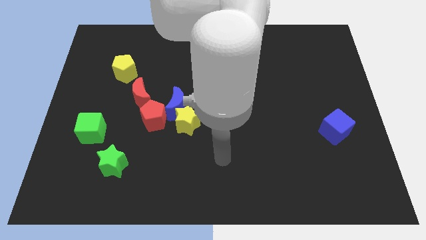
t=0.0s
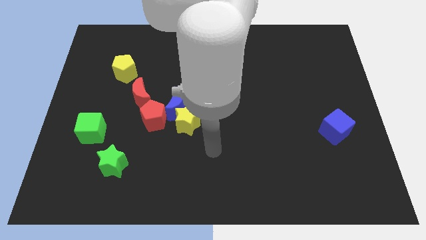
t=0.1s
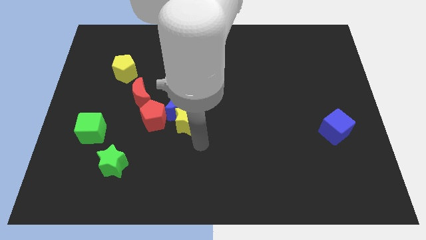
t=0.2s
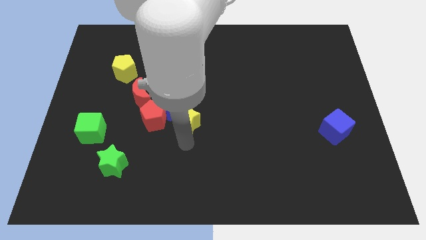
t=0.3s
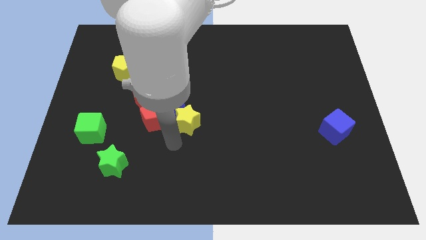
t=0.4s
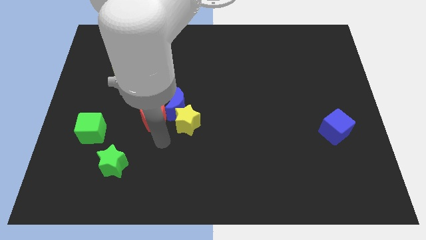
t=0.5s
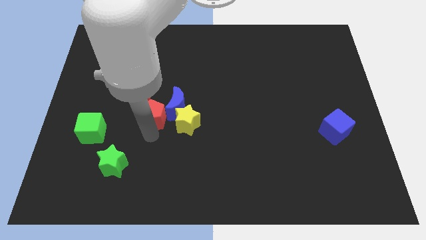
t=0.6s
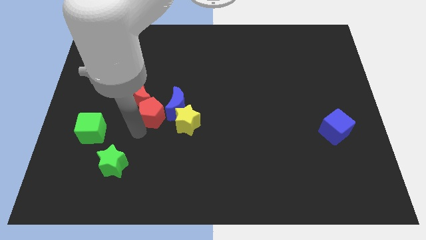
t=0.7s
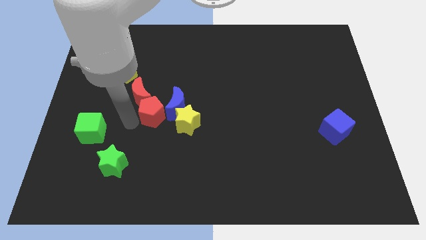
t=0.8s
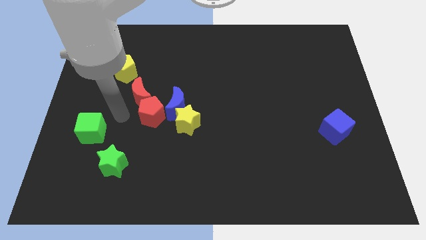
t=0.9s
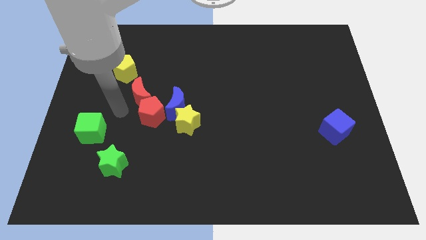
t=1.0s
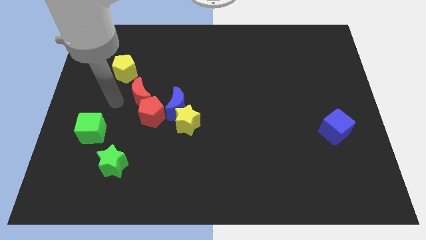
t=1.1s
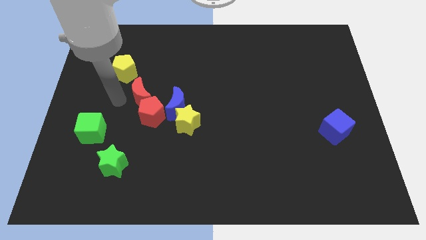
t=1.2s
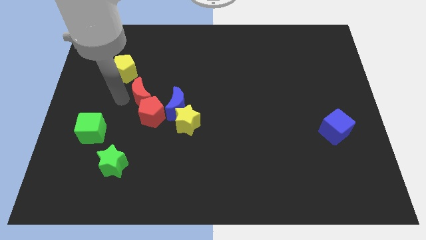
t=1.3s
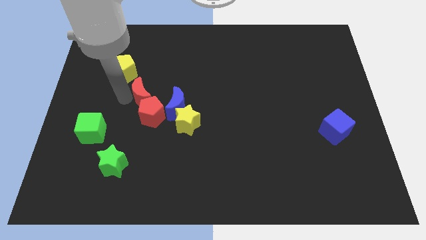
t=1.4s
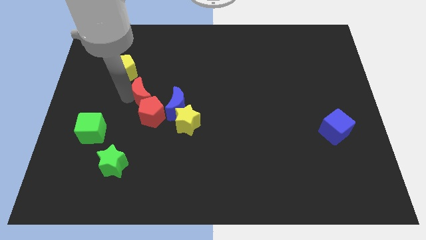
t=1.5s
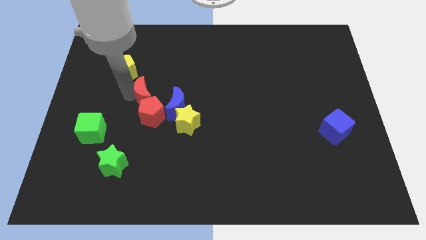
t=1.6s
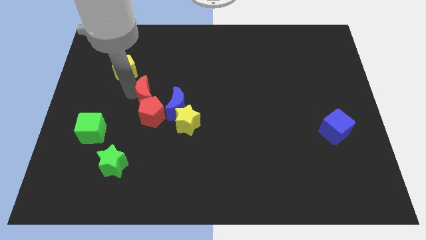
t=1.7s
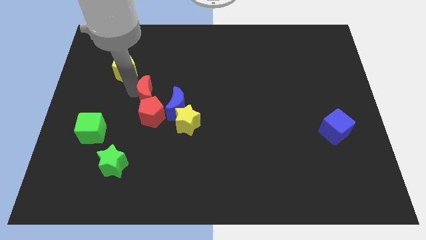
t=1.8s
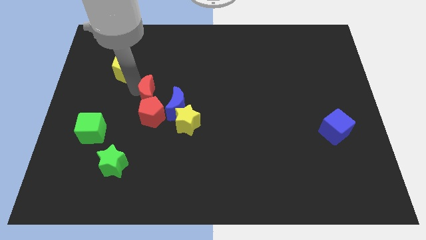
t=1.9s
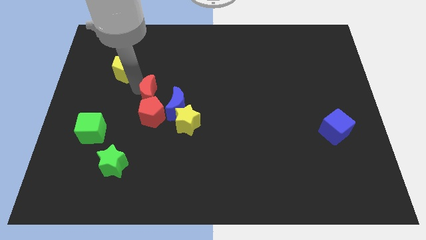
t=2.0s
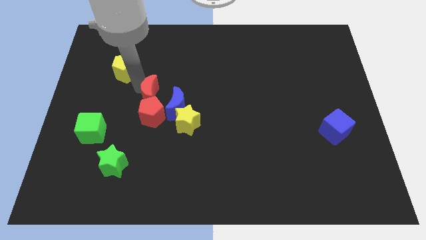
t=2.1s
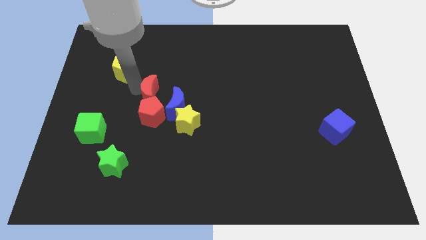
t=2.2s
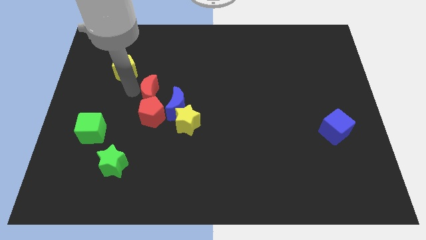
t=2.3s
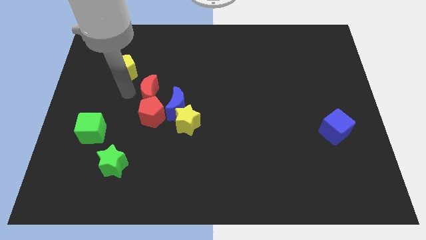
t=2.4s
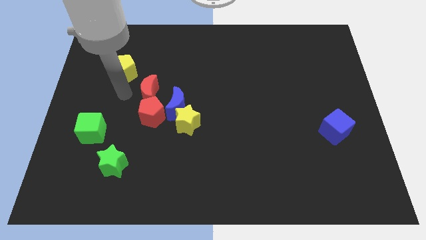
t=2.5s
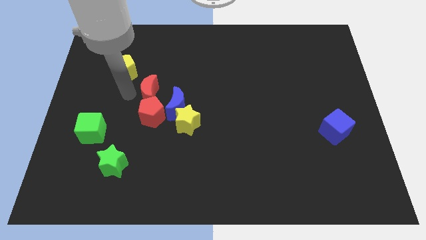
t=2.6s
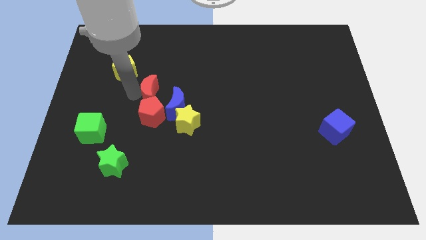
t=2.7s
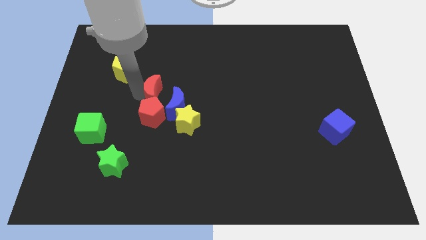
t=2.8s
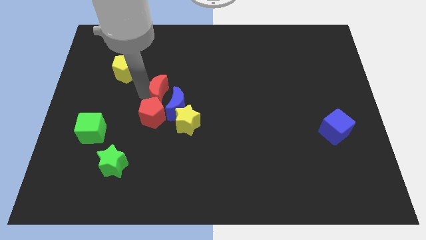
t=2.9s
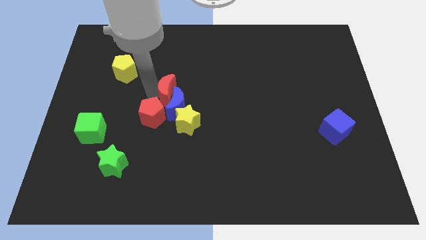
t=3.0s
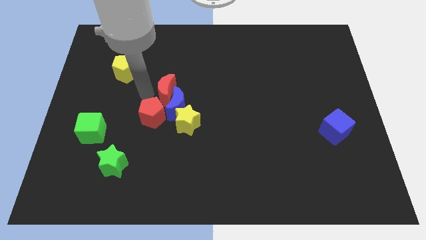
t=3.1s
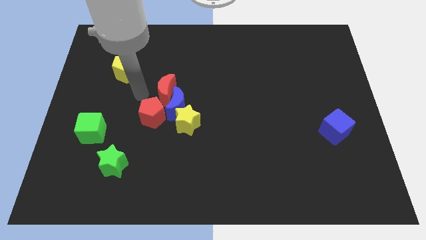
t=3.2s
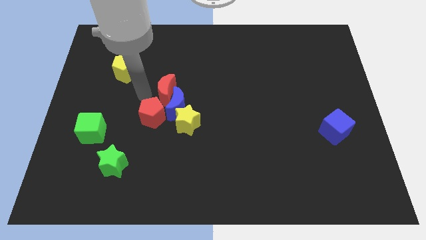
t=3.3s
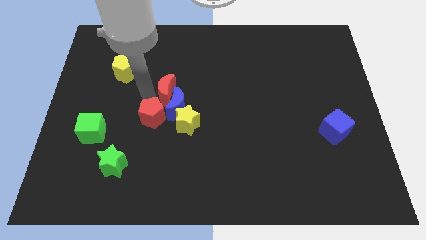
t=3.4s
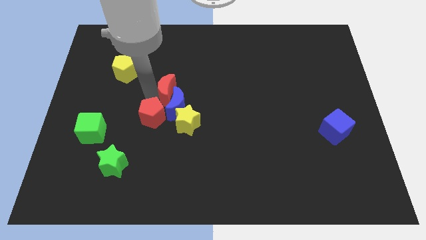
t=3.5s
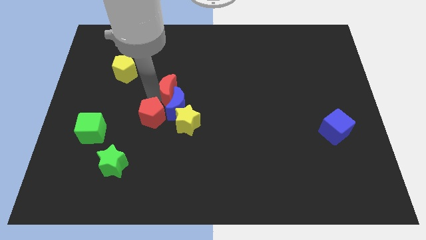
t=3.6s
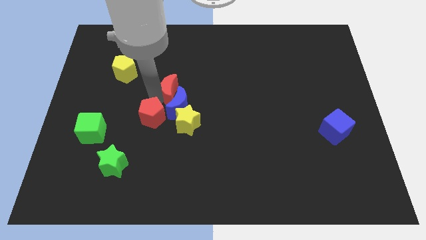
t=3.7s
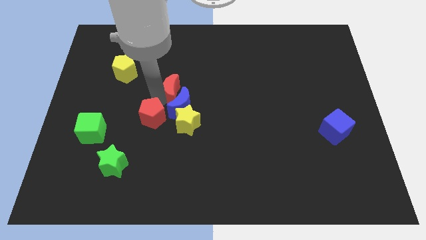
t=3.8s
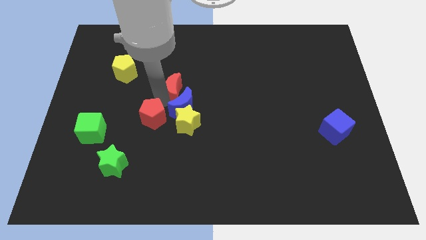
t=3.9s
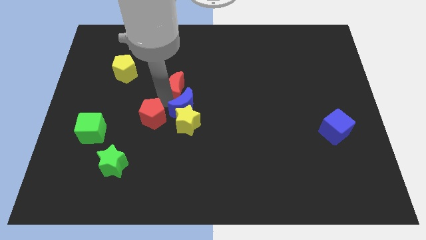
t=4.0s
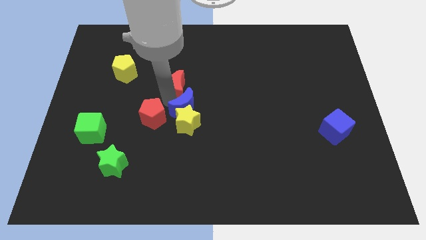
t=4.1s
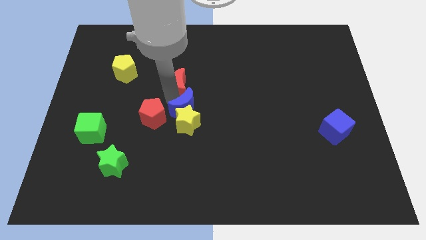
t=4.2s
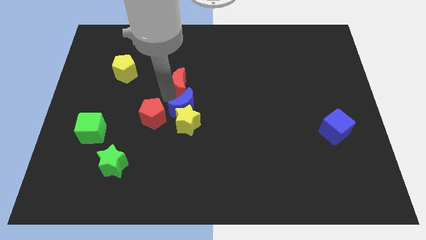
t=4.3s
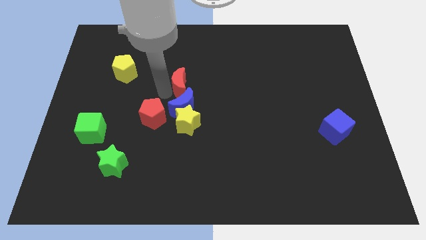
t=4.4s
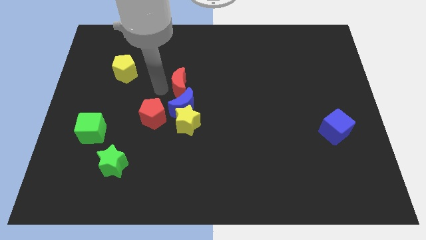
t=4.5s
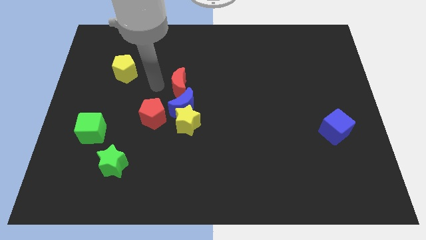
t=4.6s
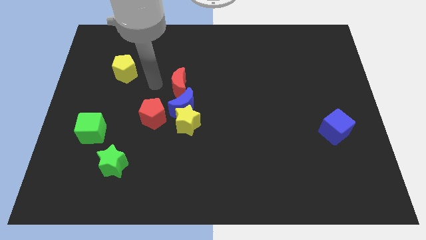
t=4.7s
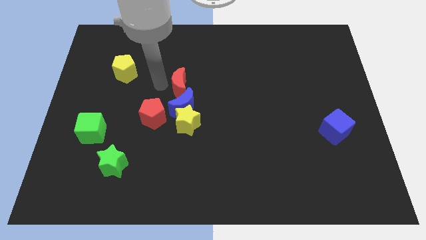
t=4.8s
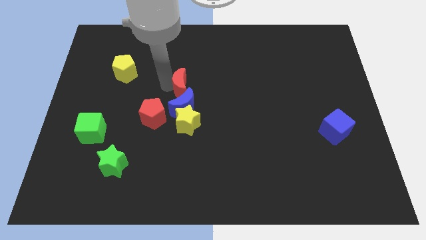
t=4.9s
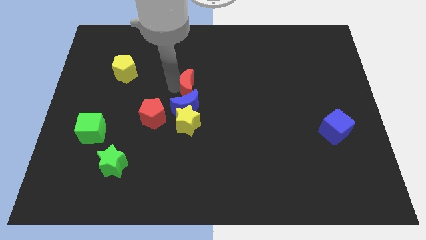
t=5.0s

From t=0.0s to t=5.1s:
put the red moon diagonally up and to the right of the blue moon

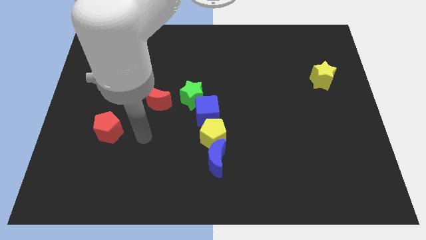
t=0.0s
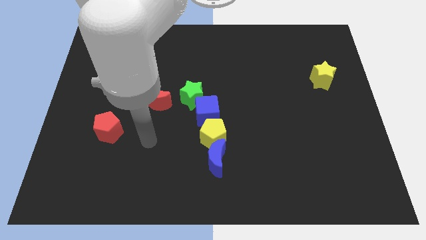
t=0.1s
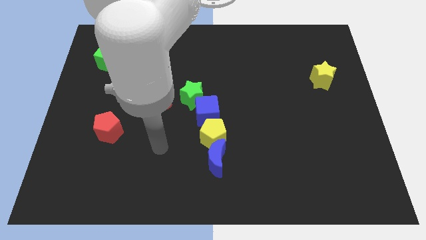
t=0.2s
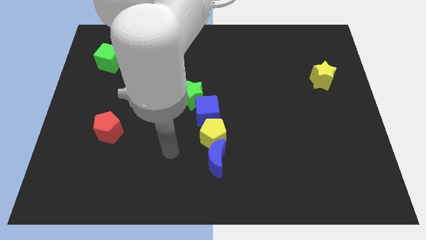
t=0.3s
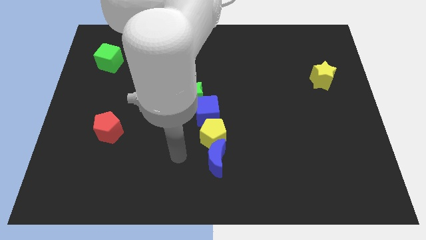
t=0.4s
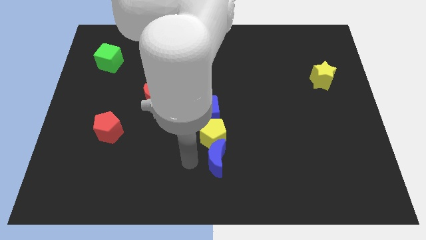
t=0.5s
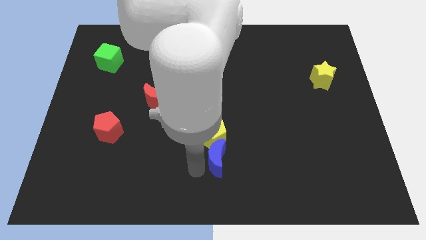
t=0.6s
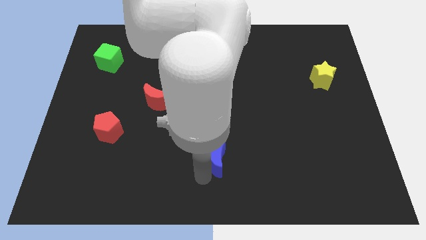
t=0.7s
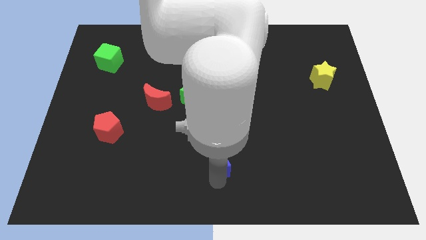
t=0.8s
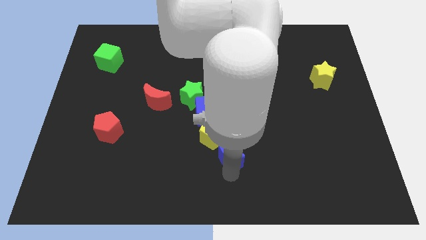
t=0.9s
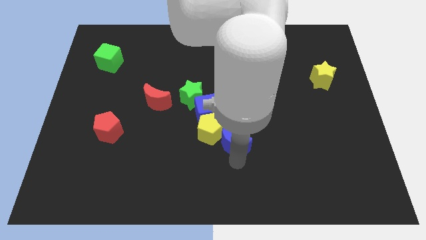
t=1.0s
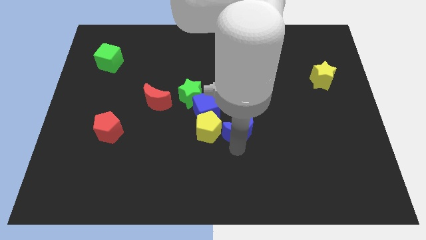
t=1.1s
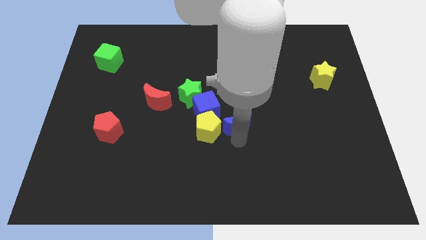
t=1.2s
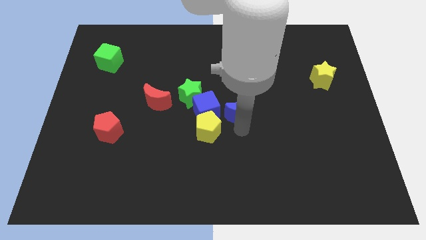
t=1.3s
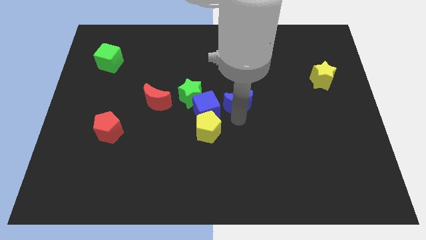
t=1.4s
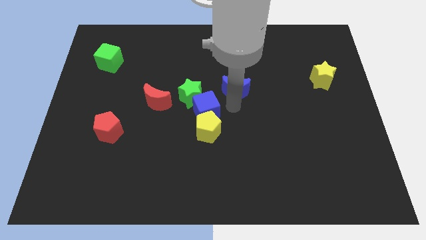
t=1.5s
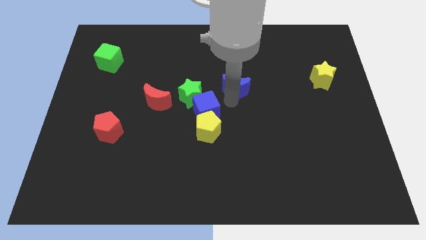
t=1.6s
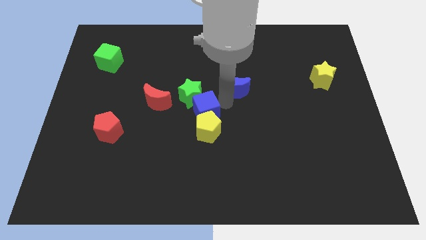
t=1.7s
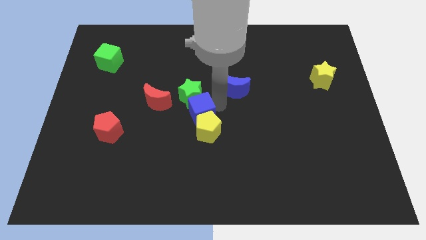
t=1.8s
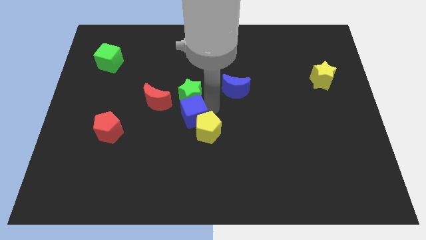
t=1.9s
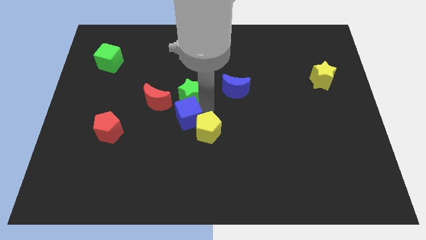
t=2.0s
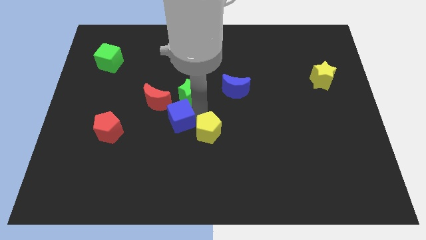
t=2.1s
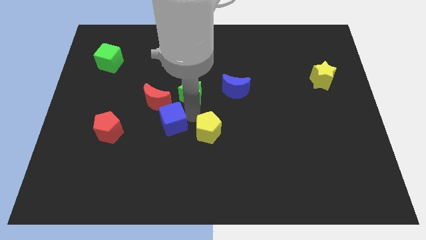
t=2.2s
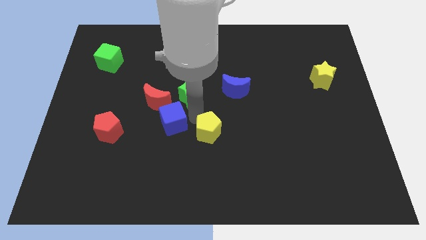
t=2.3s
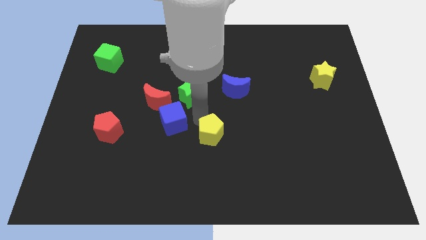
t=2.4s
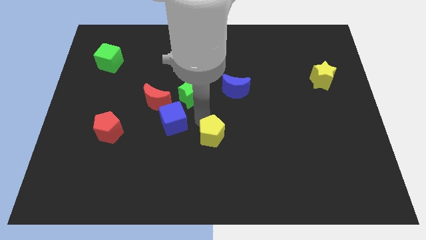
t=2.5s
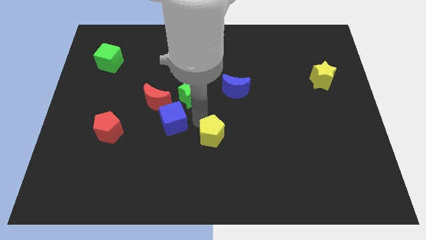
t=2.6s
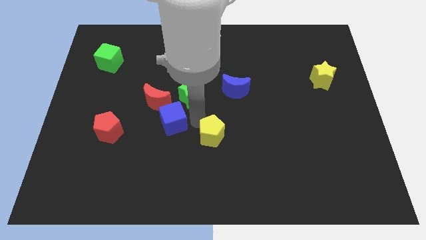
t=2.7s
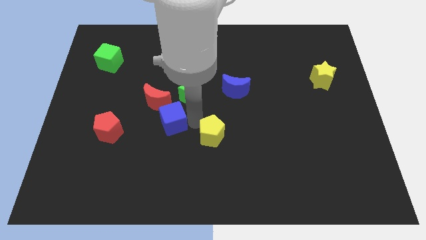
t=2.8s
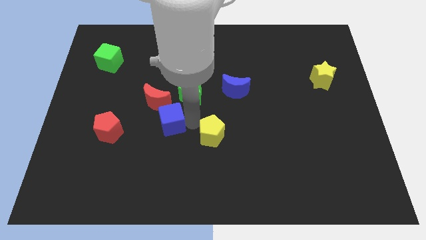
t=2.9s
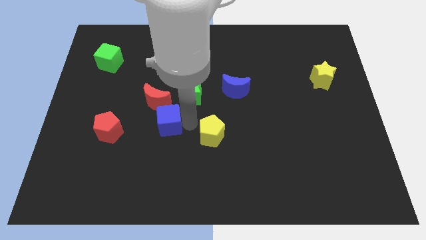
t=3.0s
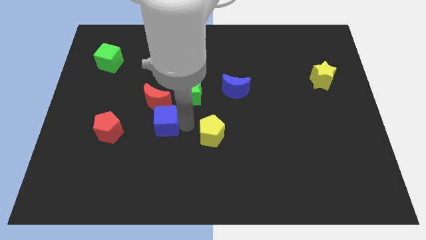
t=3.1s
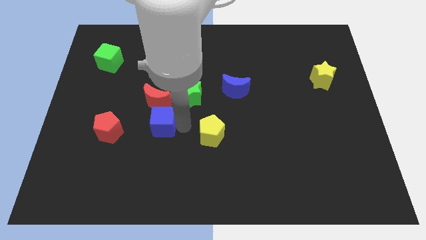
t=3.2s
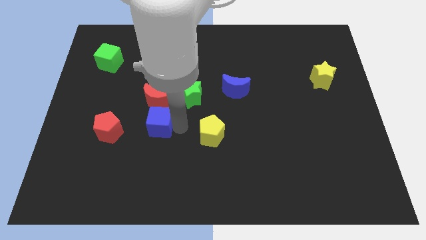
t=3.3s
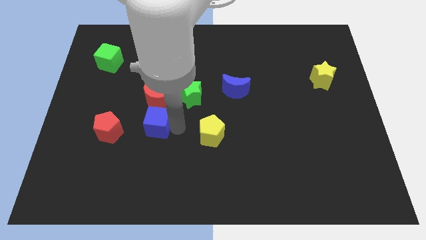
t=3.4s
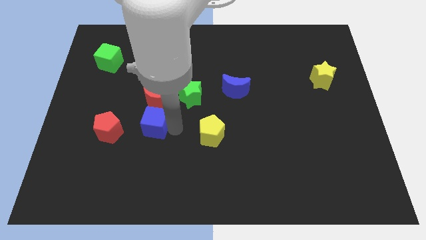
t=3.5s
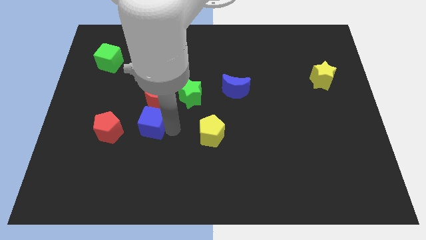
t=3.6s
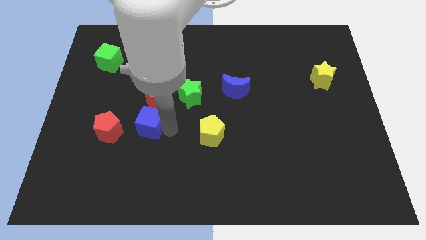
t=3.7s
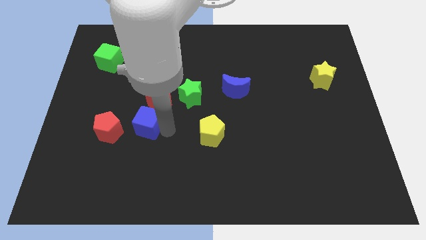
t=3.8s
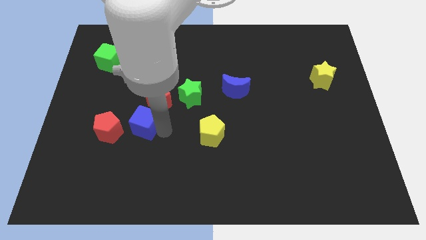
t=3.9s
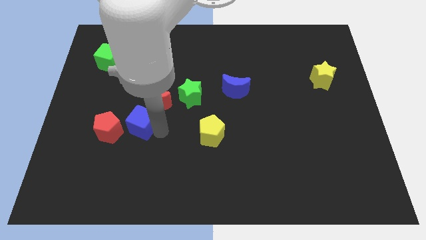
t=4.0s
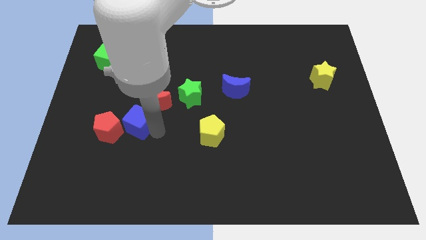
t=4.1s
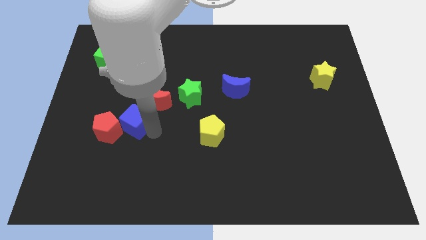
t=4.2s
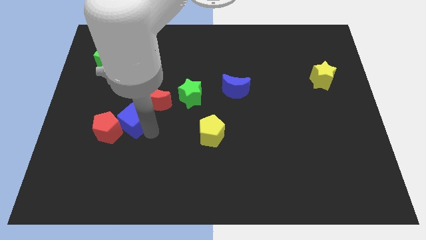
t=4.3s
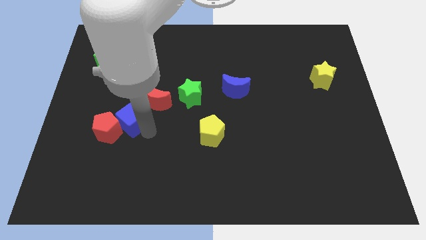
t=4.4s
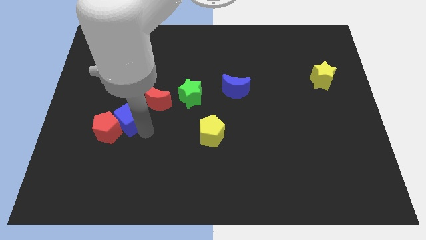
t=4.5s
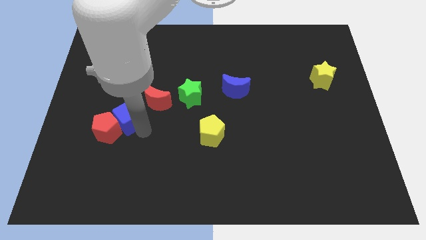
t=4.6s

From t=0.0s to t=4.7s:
push the blue cube to the top of the red pentagon
